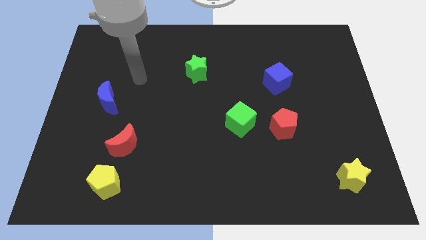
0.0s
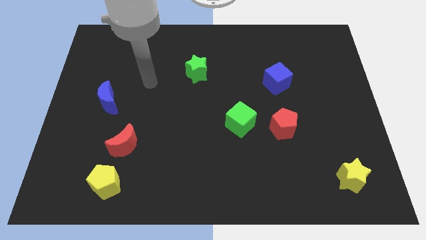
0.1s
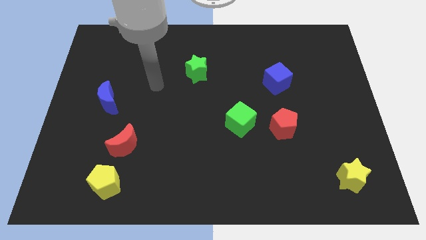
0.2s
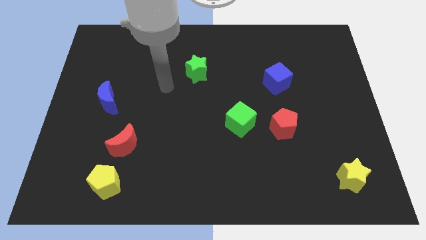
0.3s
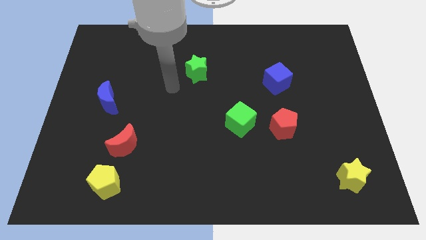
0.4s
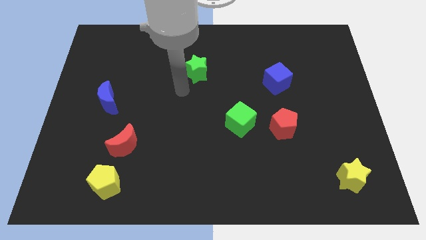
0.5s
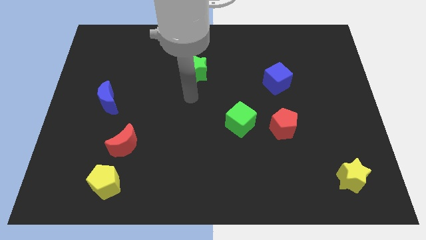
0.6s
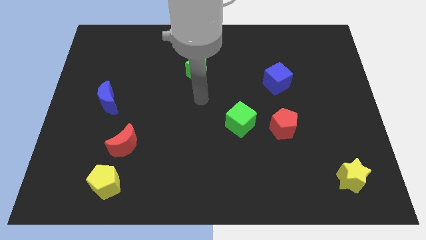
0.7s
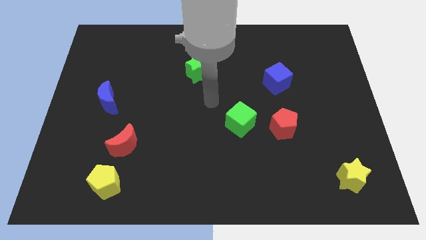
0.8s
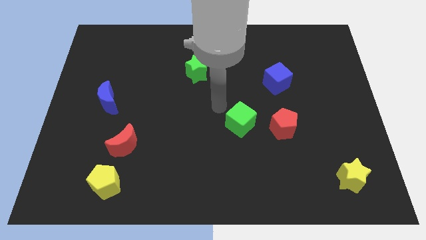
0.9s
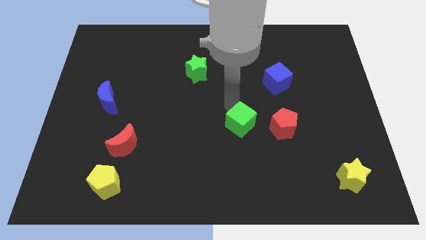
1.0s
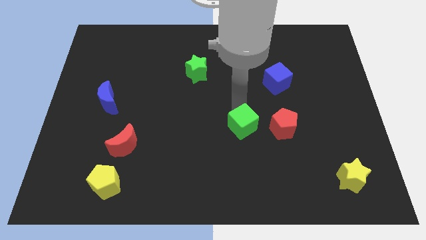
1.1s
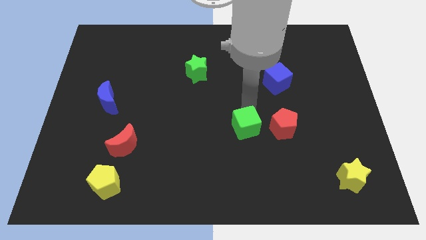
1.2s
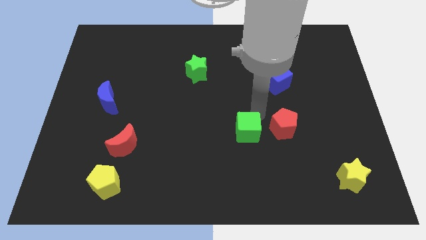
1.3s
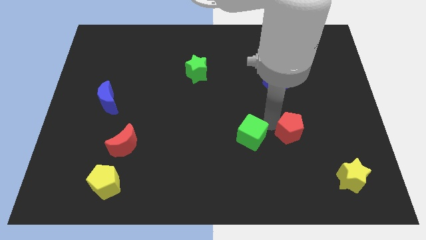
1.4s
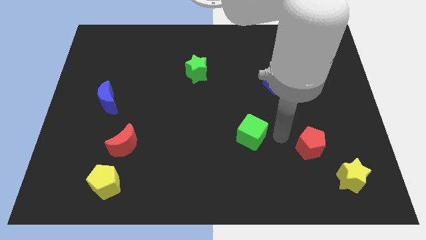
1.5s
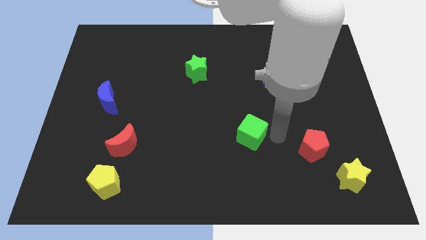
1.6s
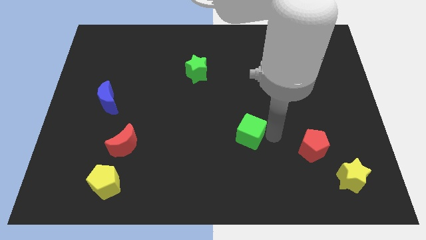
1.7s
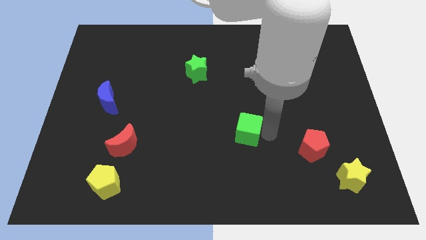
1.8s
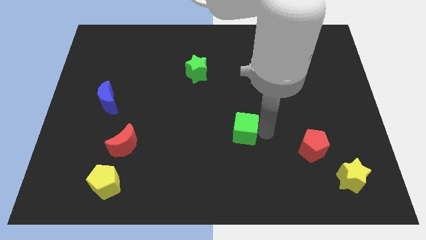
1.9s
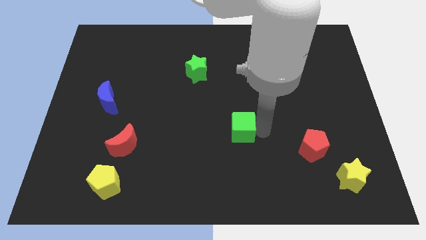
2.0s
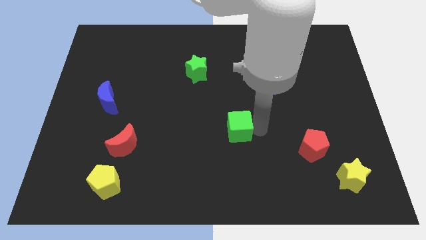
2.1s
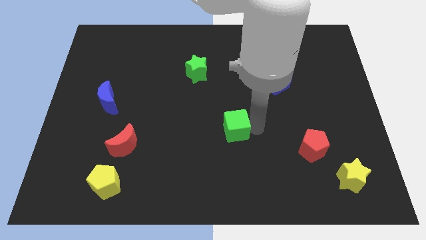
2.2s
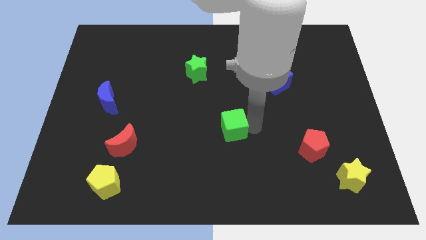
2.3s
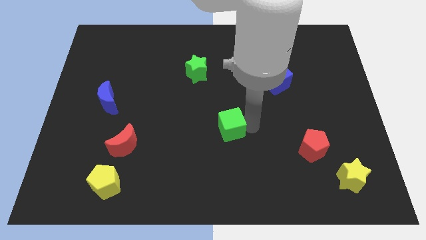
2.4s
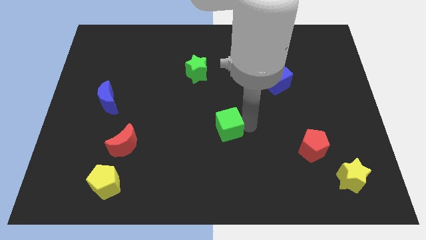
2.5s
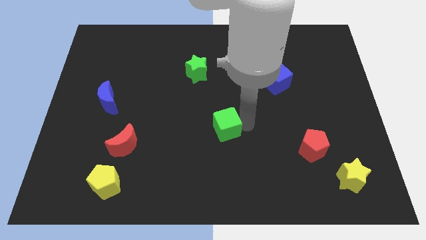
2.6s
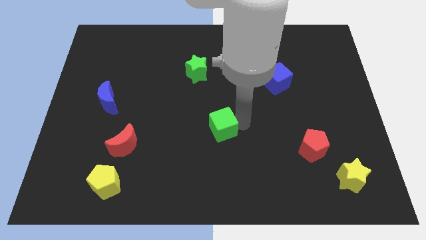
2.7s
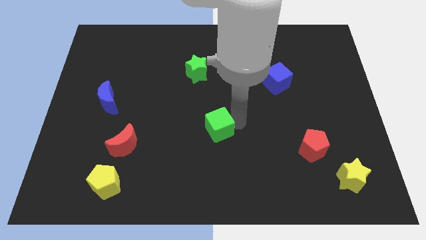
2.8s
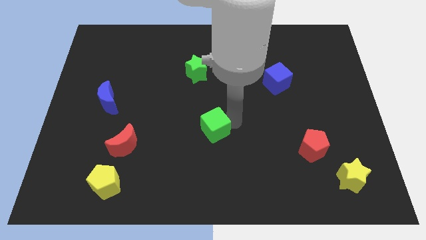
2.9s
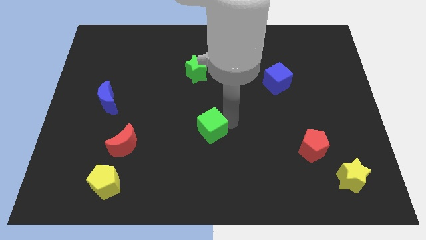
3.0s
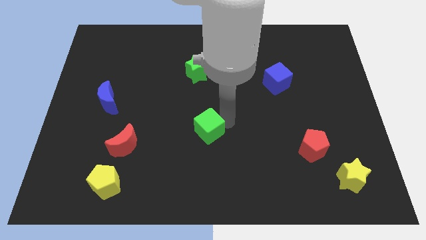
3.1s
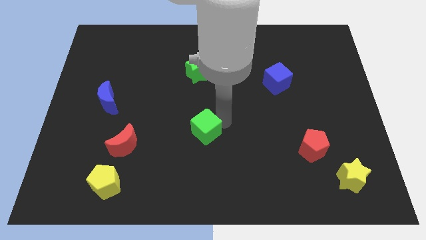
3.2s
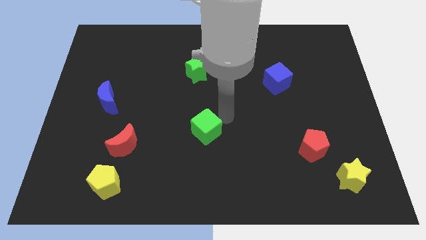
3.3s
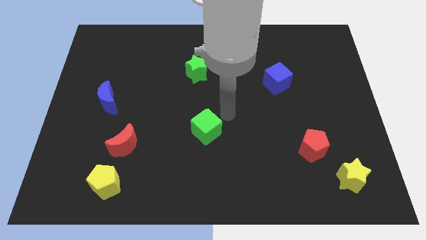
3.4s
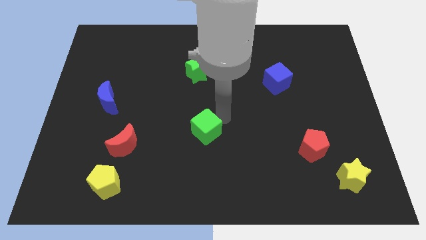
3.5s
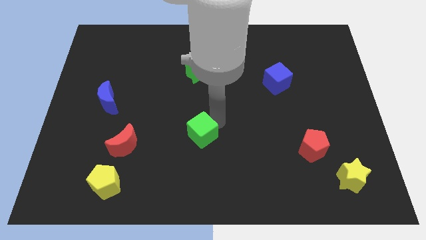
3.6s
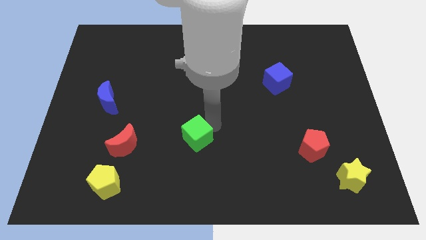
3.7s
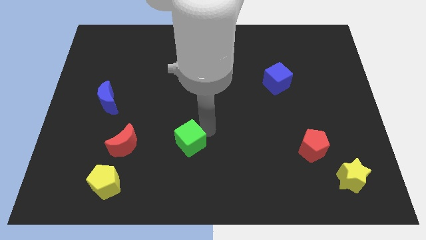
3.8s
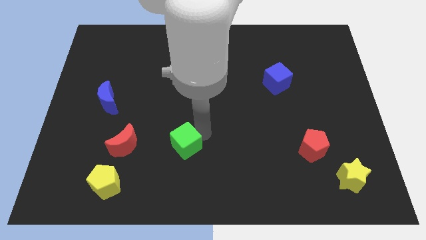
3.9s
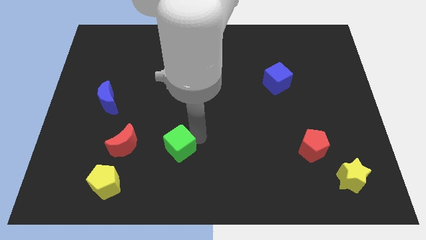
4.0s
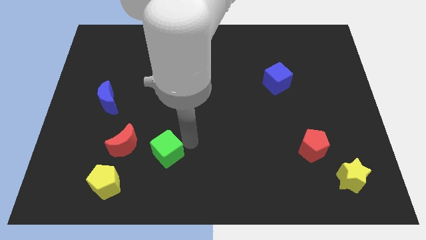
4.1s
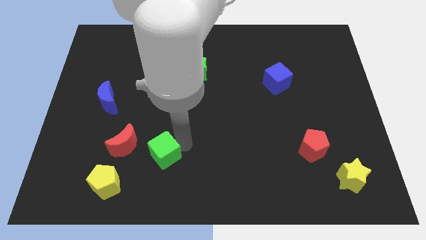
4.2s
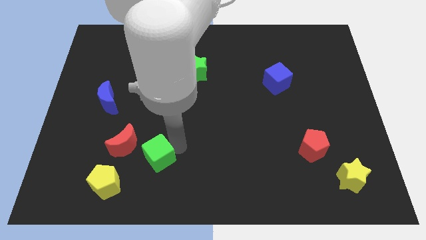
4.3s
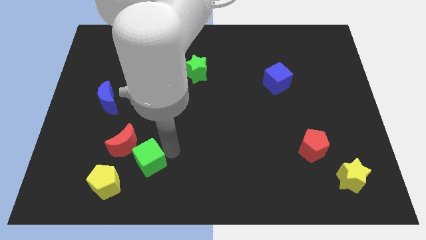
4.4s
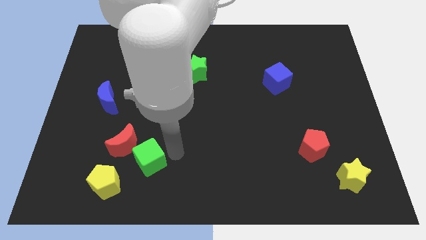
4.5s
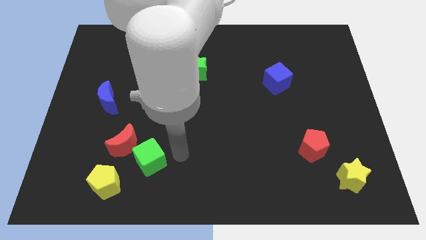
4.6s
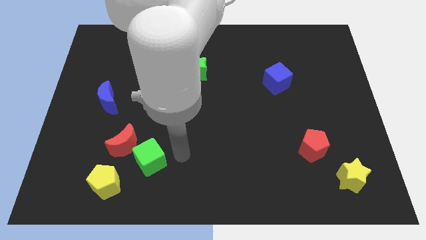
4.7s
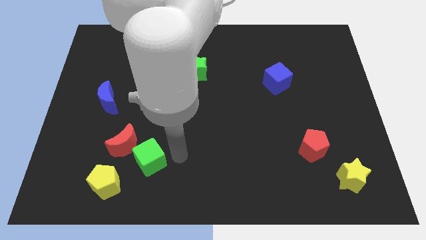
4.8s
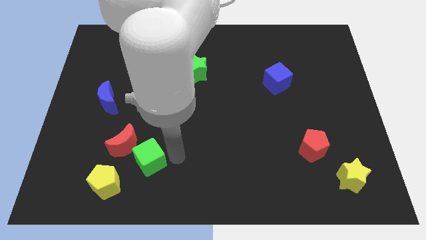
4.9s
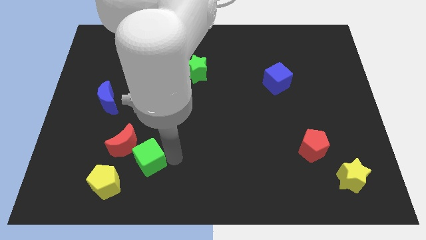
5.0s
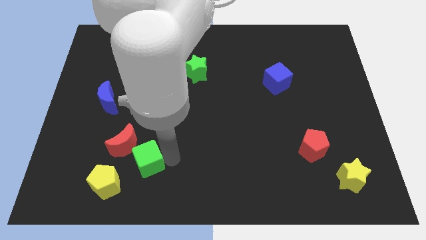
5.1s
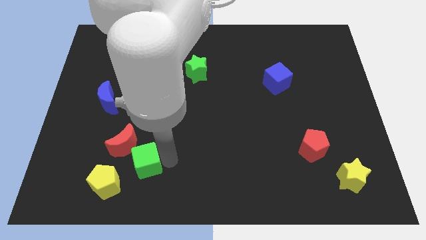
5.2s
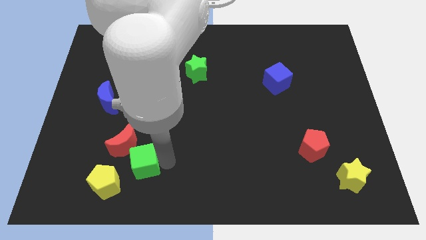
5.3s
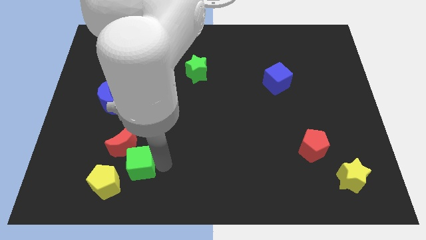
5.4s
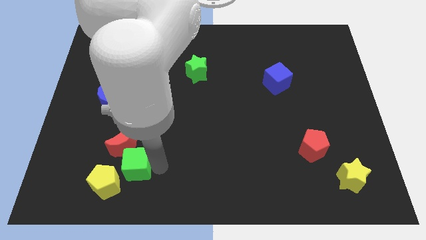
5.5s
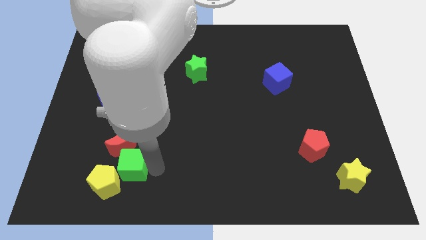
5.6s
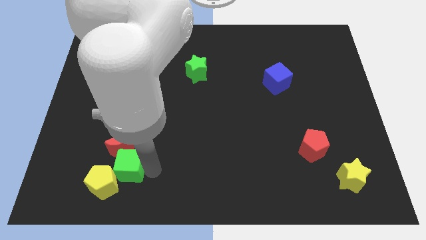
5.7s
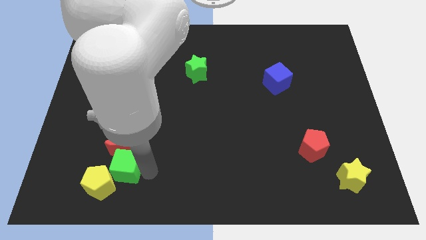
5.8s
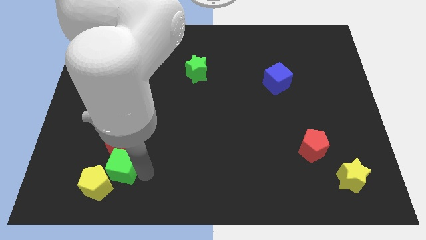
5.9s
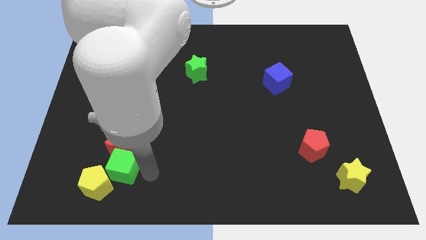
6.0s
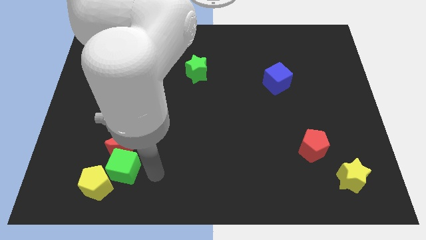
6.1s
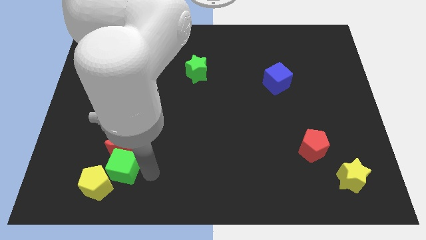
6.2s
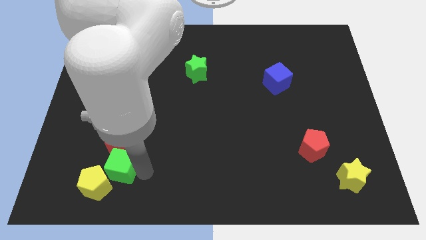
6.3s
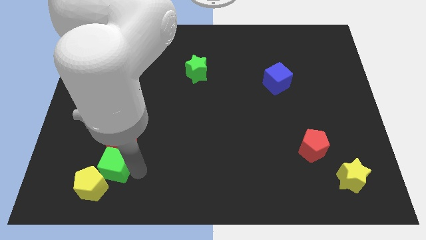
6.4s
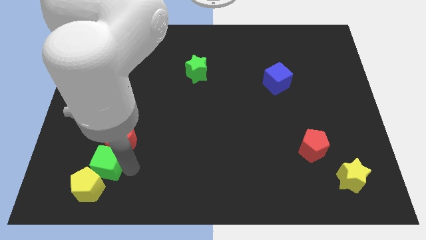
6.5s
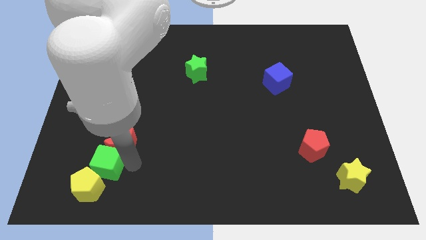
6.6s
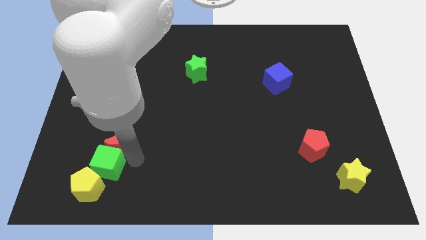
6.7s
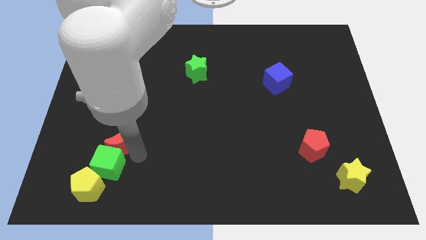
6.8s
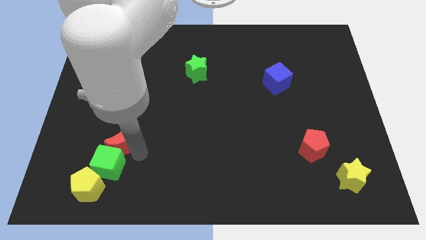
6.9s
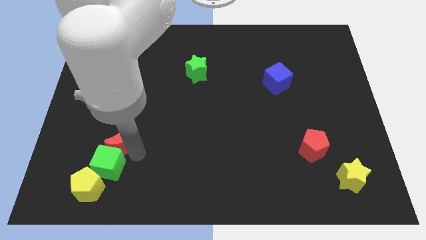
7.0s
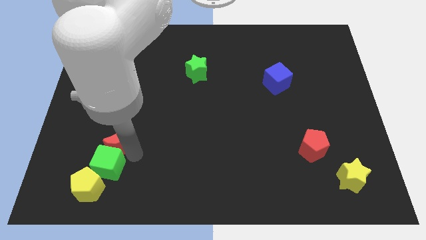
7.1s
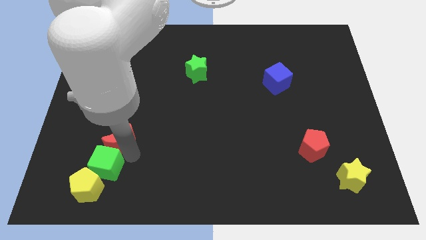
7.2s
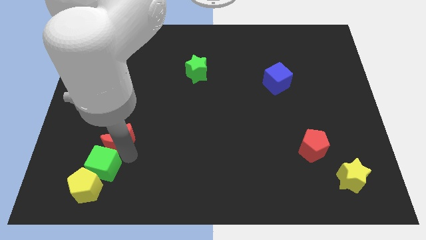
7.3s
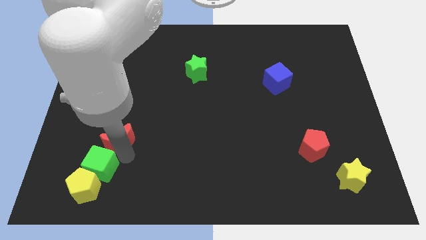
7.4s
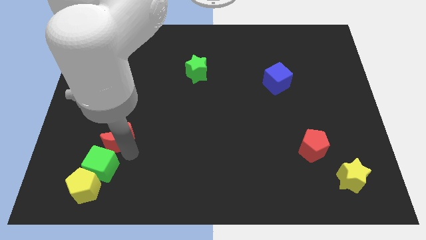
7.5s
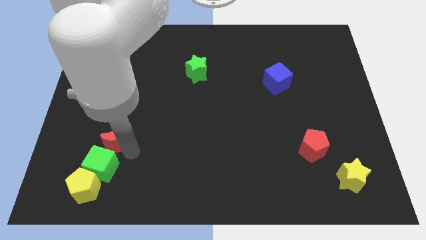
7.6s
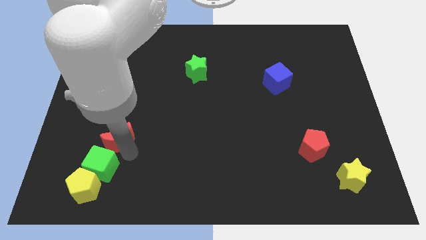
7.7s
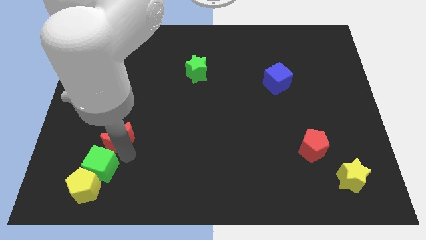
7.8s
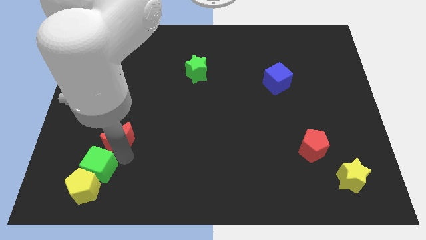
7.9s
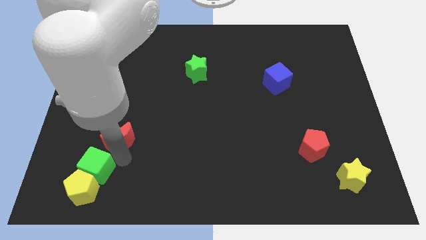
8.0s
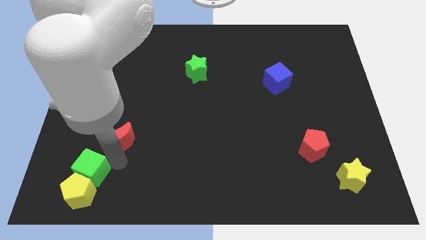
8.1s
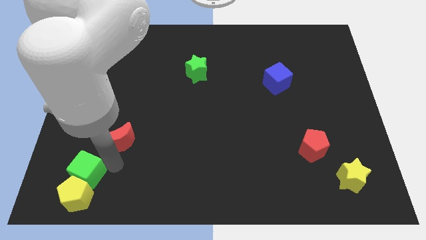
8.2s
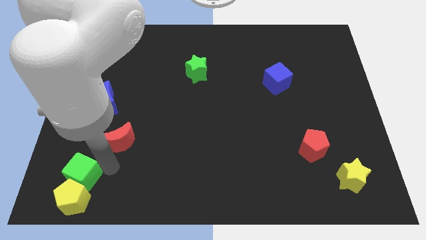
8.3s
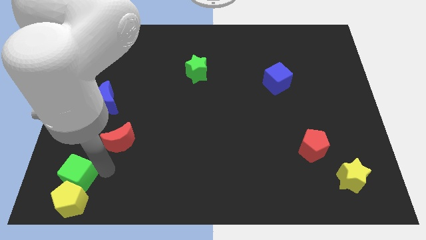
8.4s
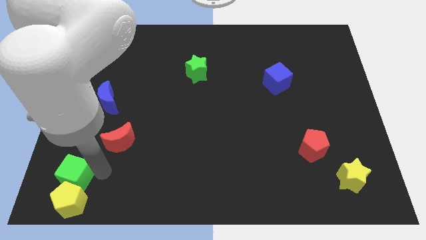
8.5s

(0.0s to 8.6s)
put the green cube to the bottom left
